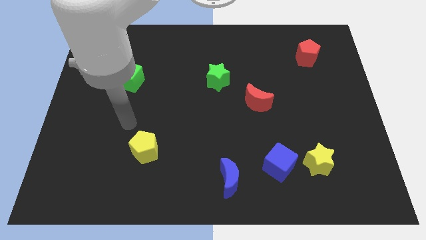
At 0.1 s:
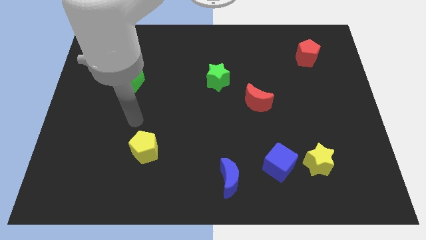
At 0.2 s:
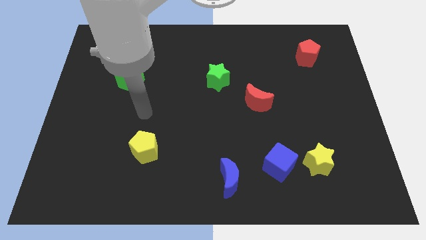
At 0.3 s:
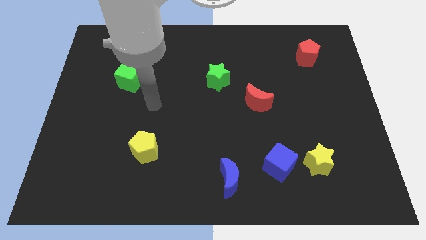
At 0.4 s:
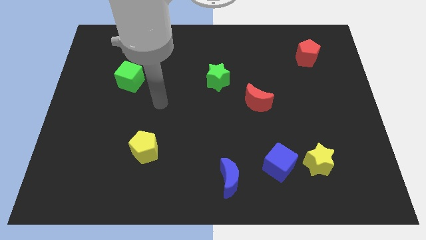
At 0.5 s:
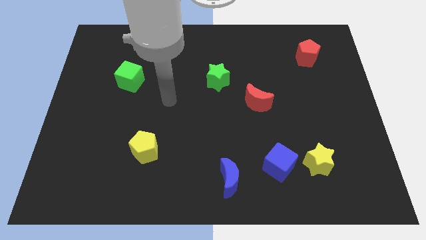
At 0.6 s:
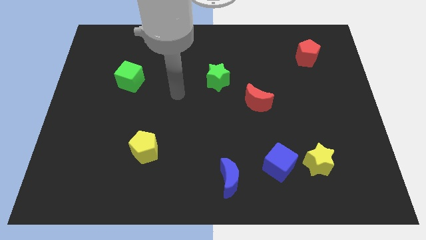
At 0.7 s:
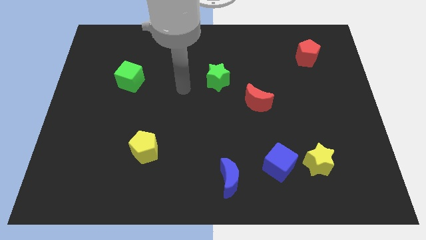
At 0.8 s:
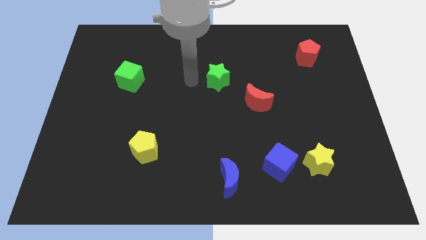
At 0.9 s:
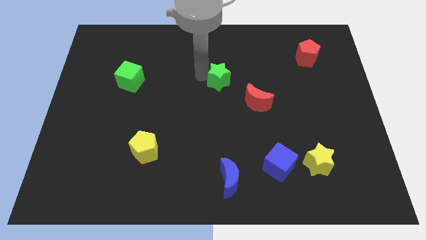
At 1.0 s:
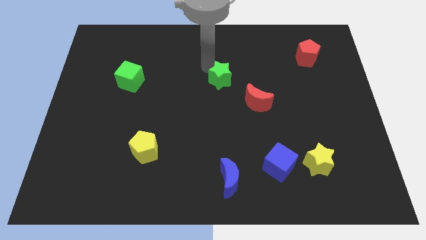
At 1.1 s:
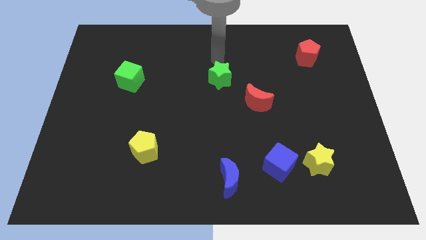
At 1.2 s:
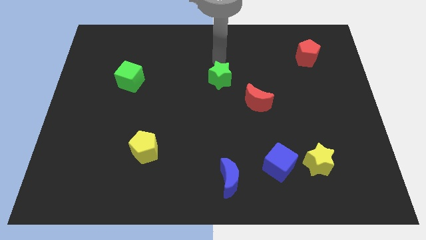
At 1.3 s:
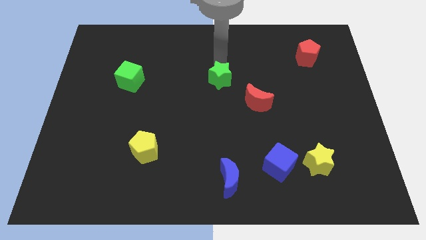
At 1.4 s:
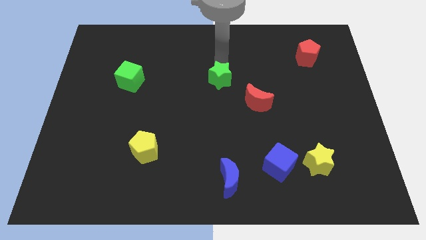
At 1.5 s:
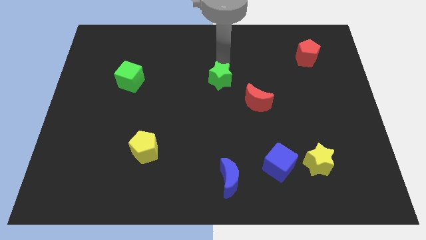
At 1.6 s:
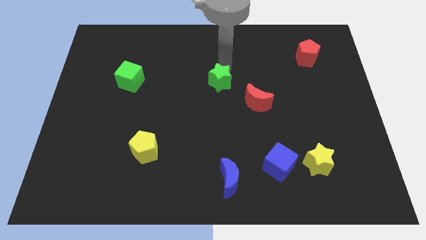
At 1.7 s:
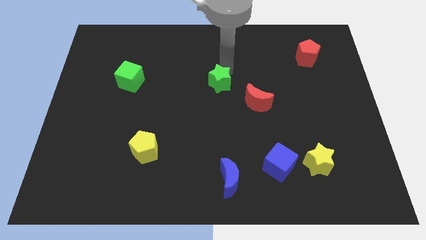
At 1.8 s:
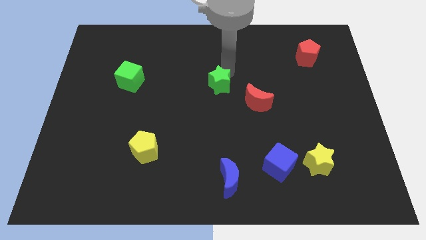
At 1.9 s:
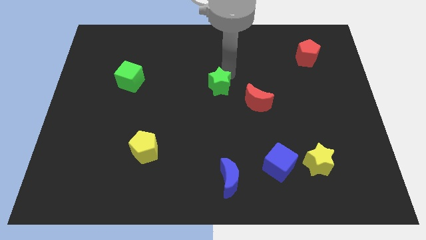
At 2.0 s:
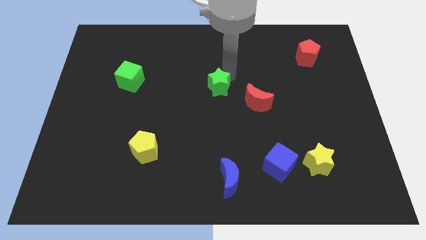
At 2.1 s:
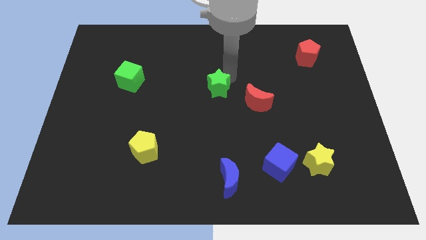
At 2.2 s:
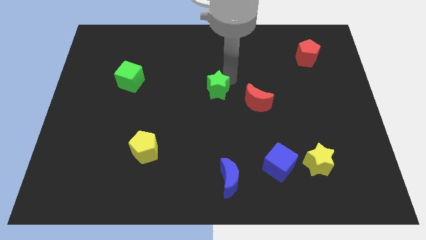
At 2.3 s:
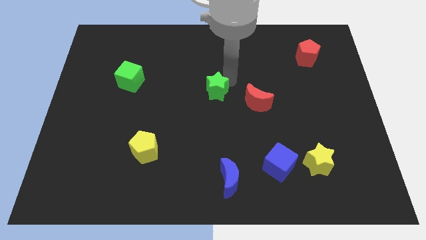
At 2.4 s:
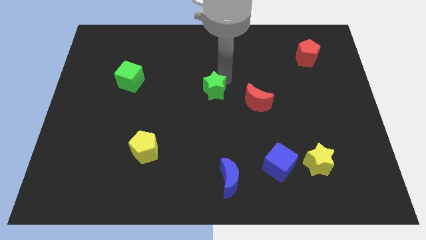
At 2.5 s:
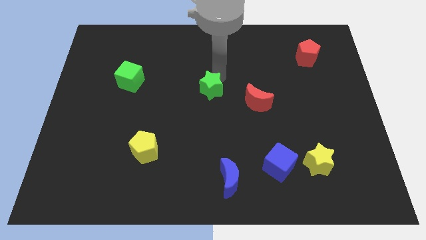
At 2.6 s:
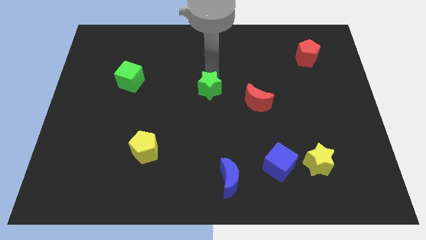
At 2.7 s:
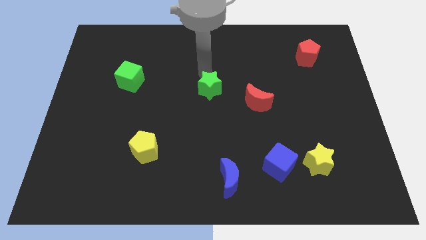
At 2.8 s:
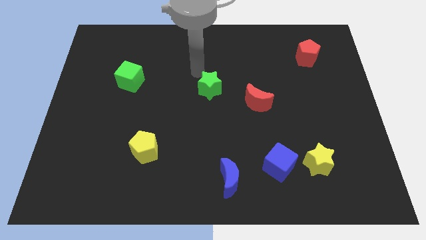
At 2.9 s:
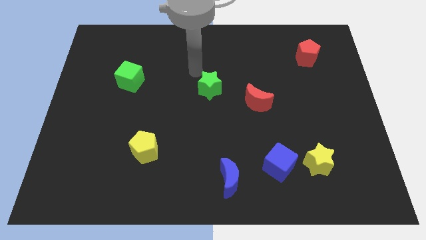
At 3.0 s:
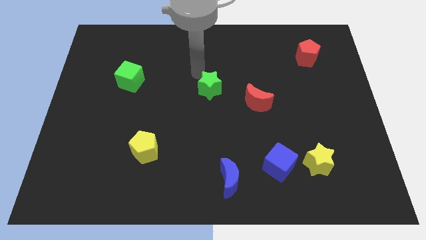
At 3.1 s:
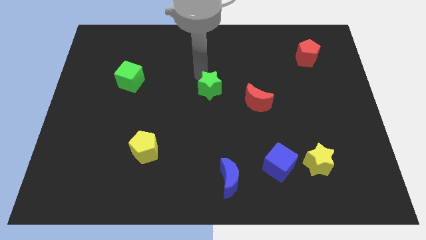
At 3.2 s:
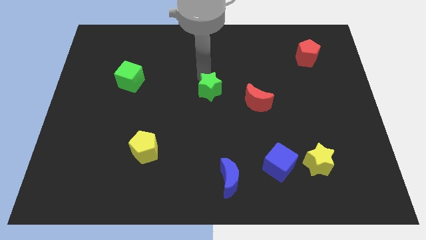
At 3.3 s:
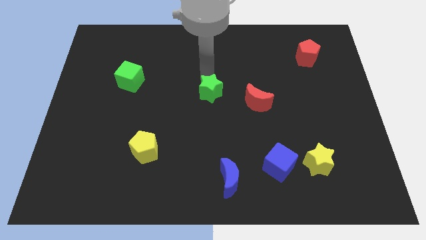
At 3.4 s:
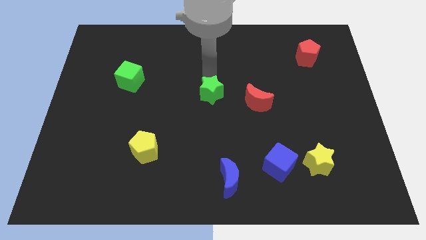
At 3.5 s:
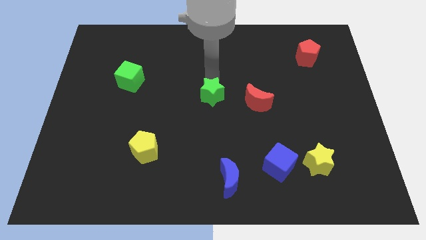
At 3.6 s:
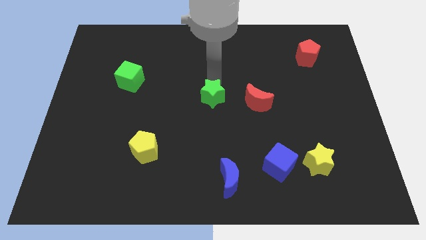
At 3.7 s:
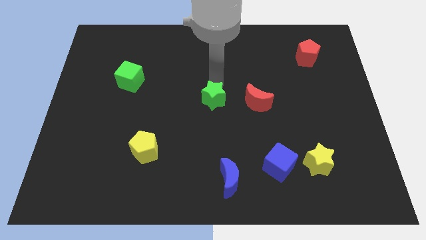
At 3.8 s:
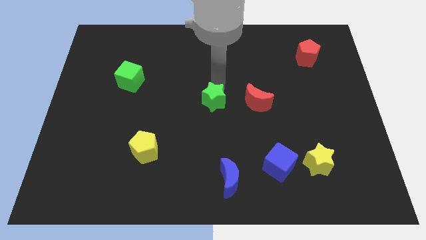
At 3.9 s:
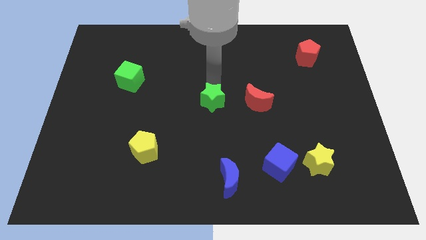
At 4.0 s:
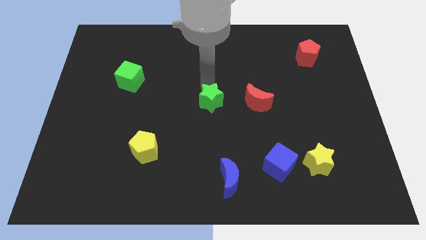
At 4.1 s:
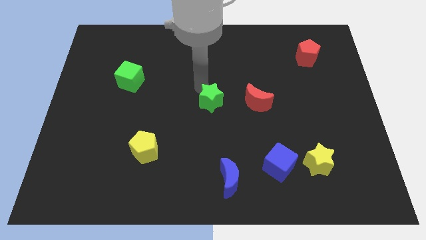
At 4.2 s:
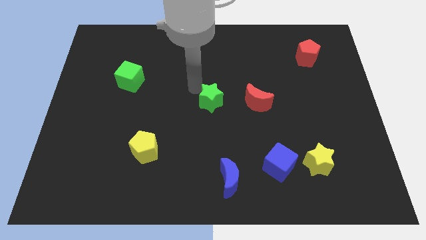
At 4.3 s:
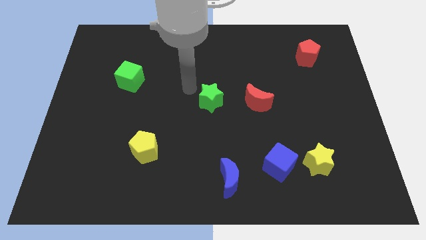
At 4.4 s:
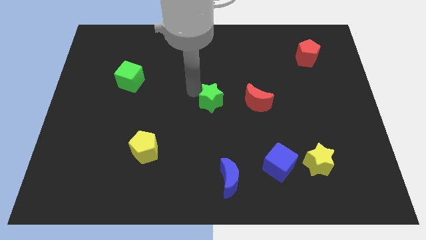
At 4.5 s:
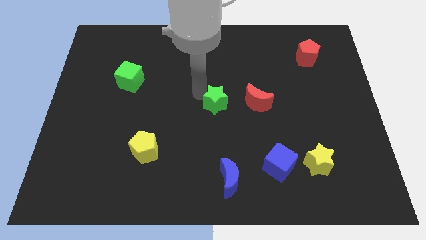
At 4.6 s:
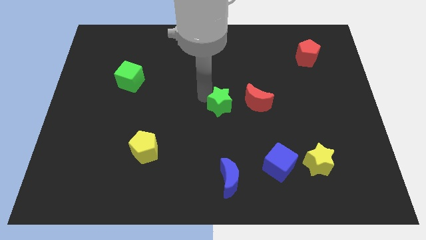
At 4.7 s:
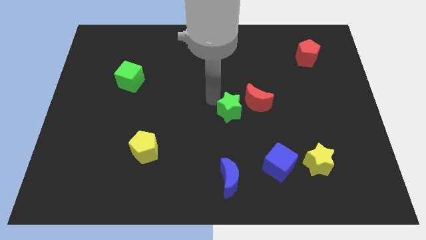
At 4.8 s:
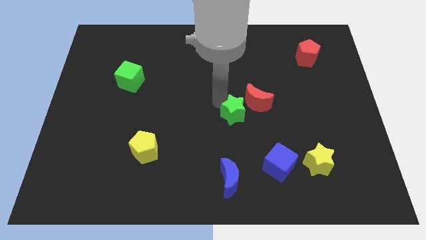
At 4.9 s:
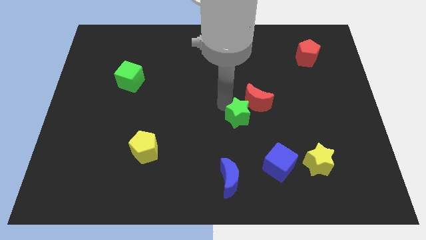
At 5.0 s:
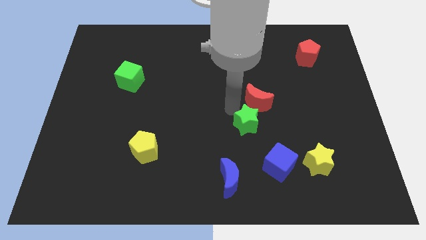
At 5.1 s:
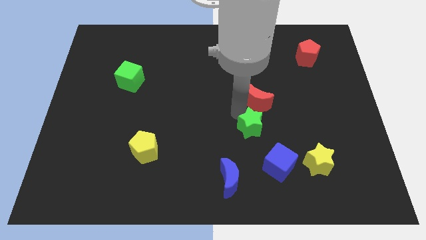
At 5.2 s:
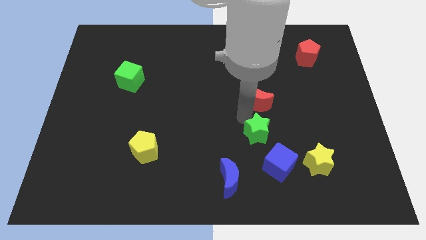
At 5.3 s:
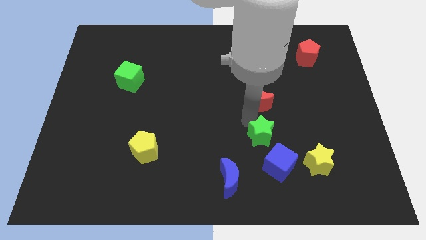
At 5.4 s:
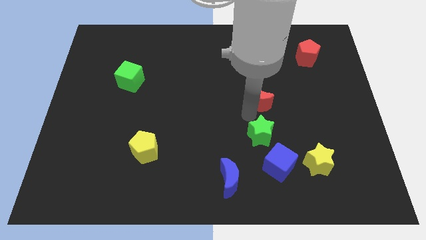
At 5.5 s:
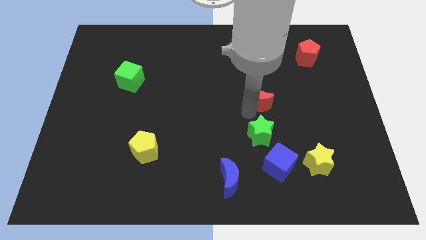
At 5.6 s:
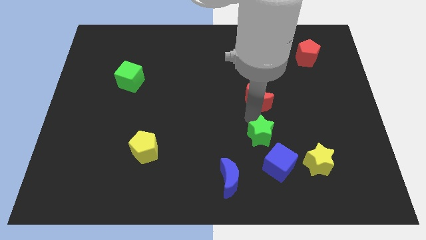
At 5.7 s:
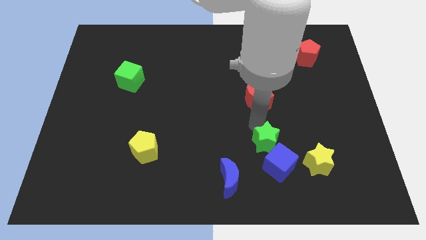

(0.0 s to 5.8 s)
slide the green star next to the blue cube

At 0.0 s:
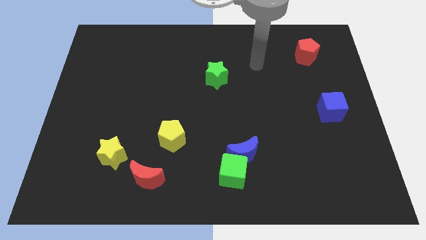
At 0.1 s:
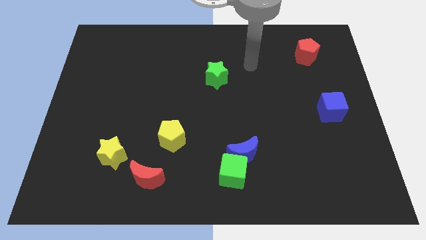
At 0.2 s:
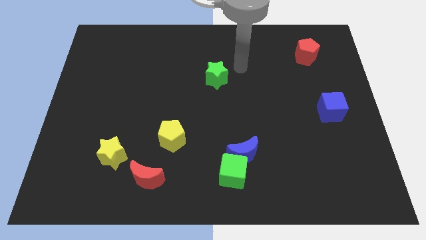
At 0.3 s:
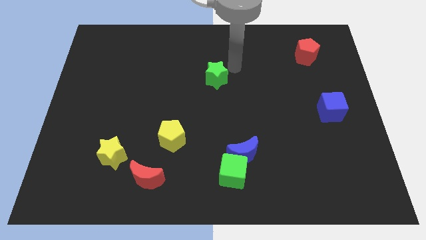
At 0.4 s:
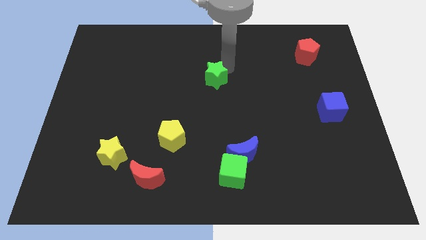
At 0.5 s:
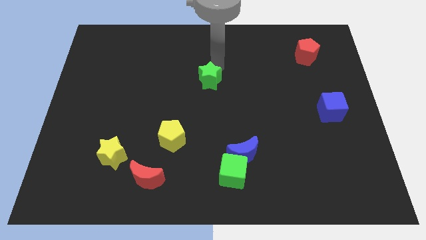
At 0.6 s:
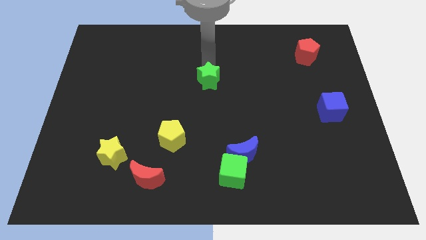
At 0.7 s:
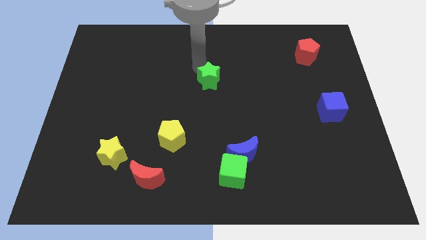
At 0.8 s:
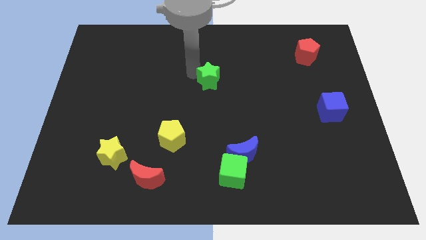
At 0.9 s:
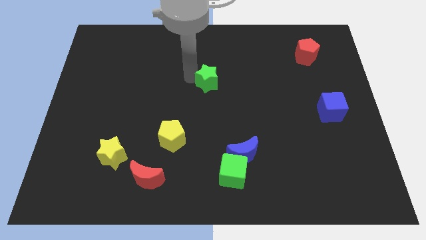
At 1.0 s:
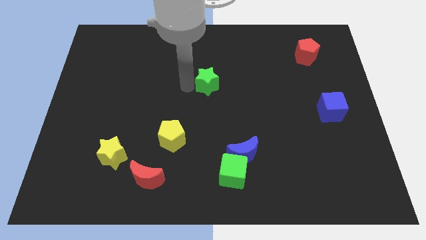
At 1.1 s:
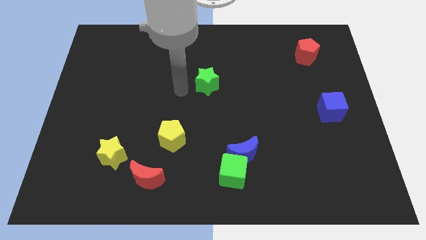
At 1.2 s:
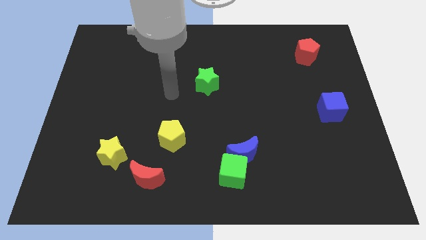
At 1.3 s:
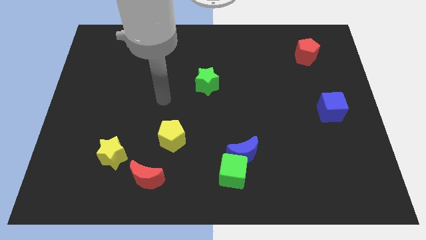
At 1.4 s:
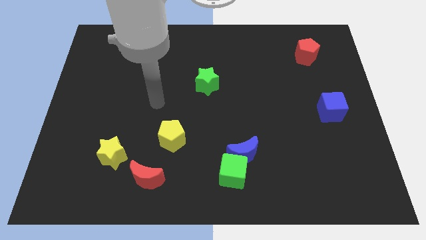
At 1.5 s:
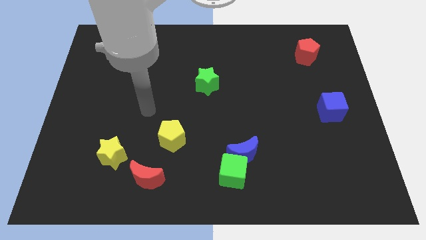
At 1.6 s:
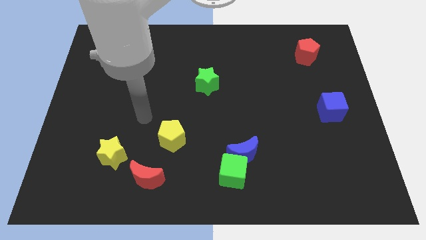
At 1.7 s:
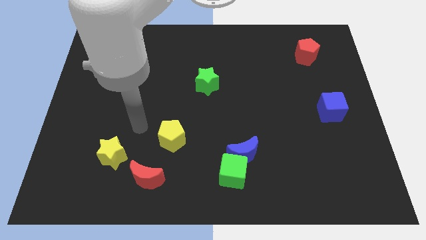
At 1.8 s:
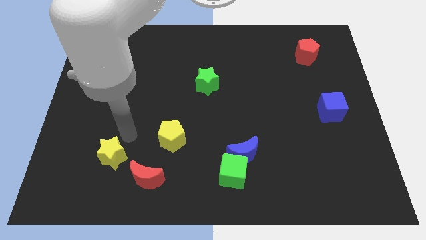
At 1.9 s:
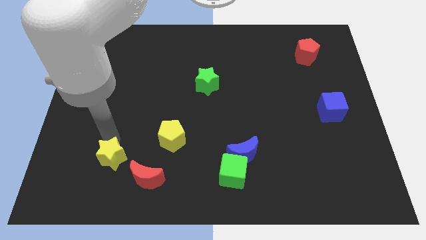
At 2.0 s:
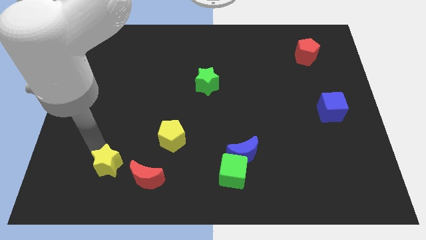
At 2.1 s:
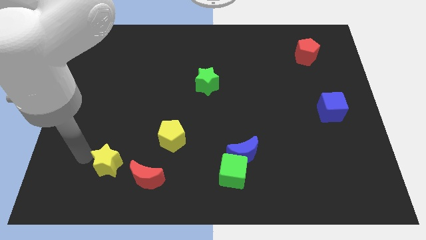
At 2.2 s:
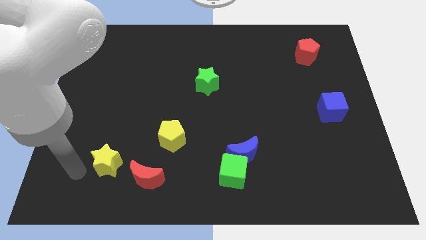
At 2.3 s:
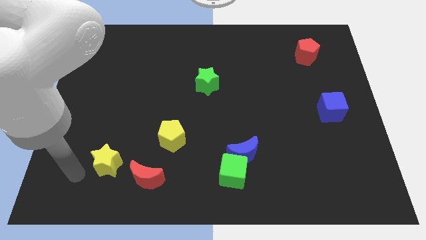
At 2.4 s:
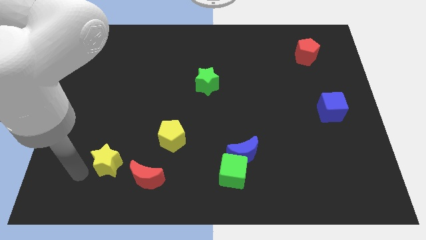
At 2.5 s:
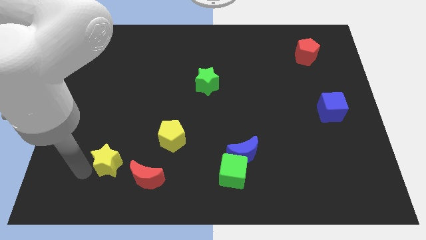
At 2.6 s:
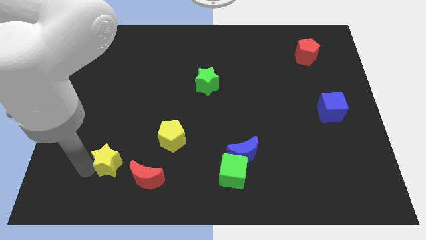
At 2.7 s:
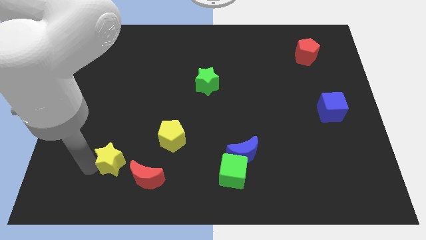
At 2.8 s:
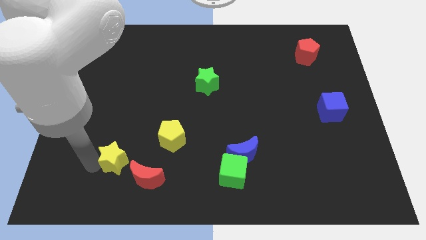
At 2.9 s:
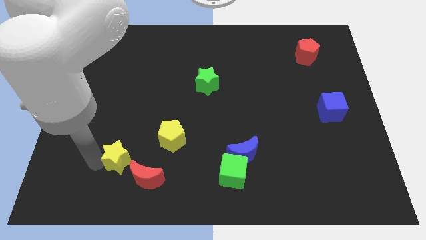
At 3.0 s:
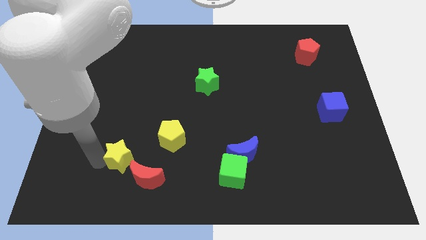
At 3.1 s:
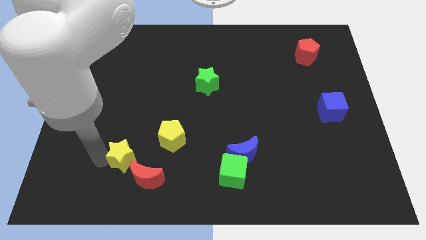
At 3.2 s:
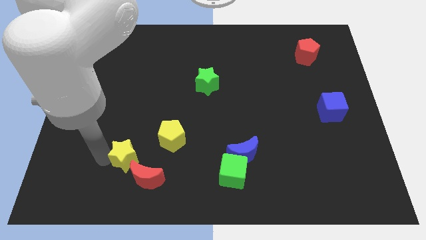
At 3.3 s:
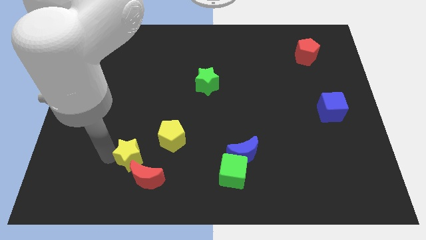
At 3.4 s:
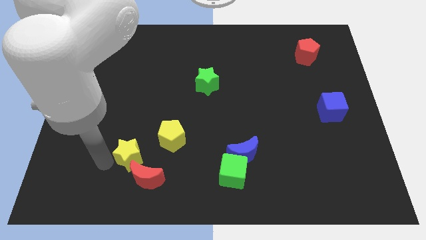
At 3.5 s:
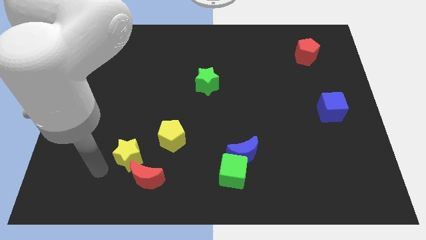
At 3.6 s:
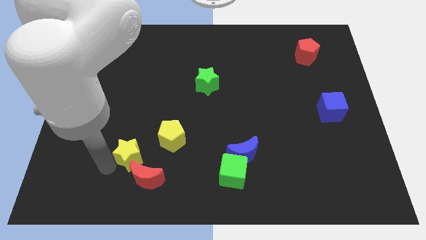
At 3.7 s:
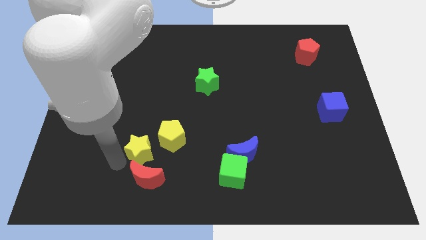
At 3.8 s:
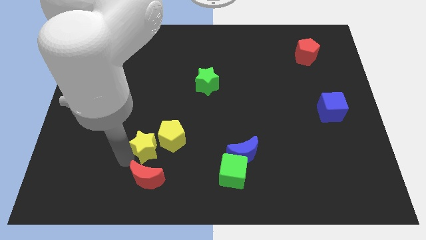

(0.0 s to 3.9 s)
put the yellow star close to the yellow pentagon
